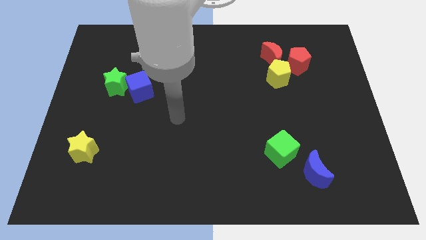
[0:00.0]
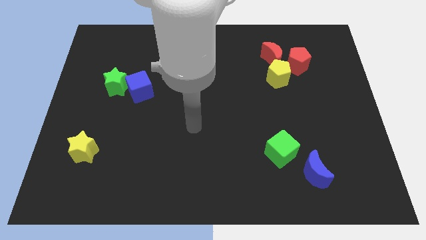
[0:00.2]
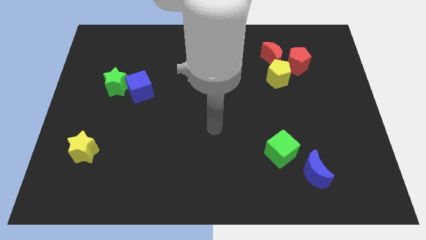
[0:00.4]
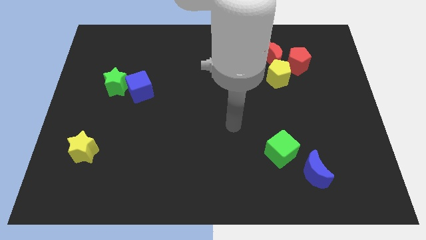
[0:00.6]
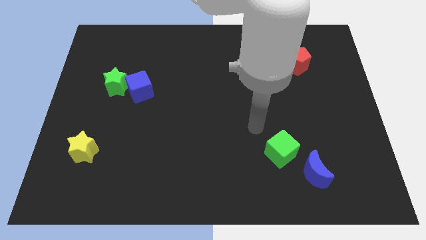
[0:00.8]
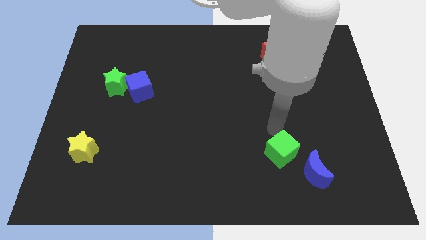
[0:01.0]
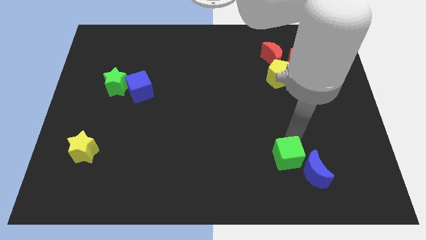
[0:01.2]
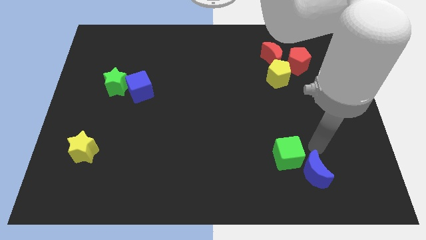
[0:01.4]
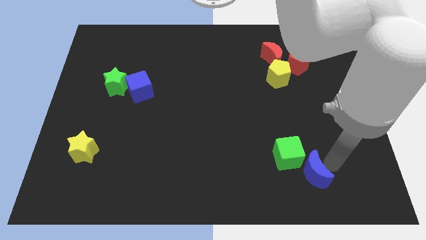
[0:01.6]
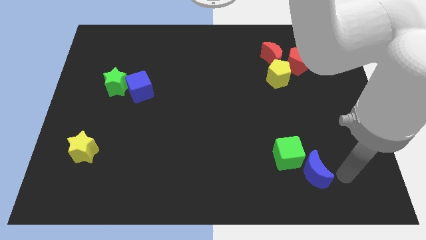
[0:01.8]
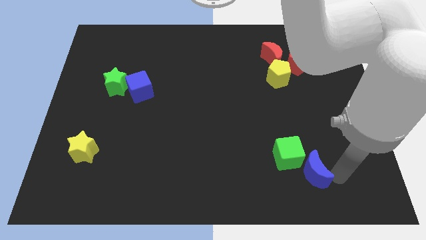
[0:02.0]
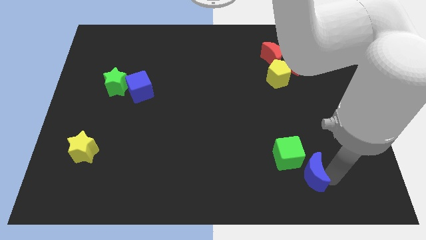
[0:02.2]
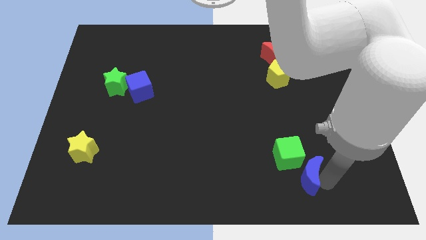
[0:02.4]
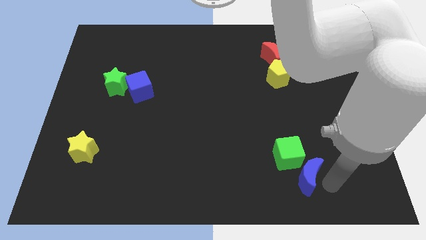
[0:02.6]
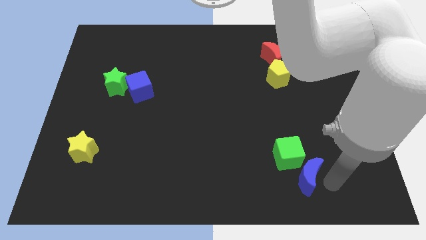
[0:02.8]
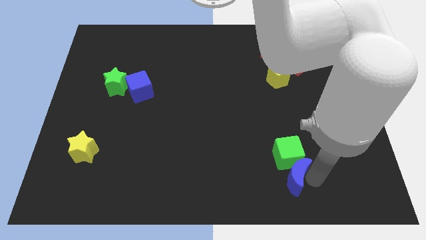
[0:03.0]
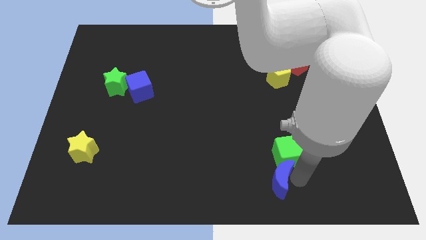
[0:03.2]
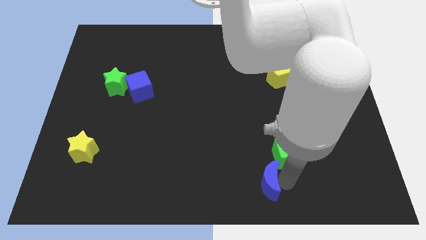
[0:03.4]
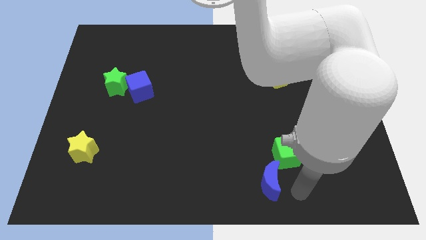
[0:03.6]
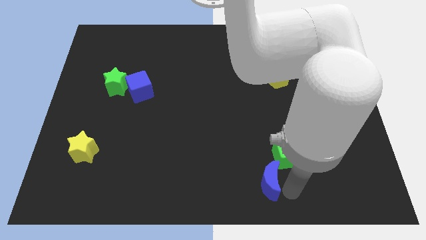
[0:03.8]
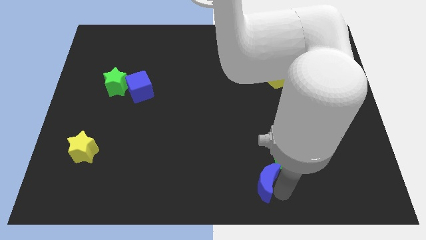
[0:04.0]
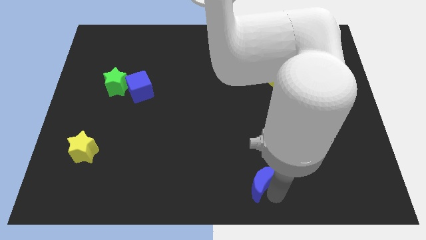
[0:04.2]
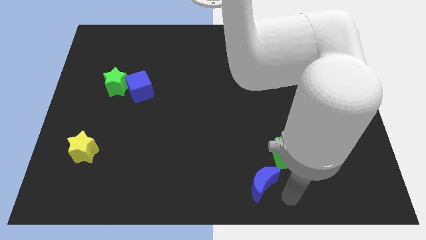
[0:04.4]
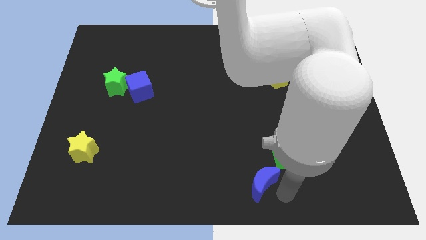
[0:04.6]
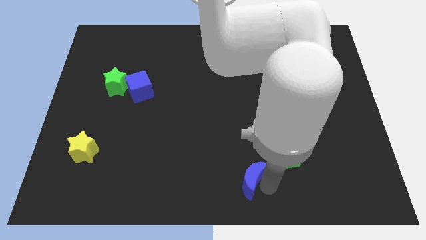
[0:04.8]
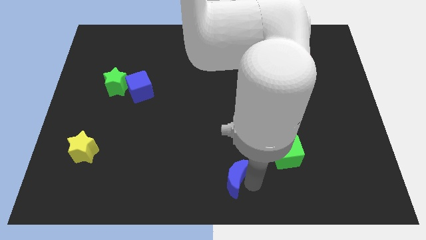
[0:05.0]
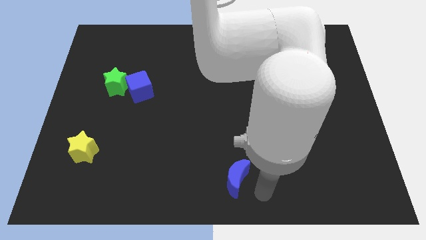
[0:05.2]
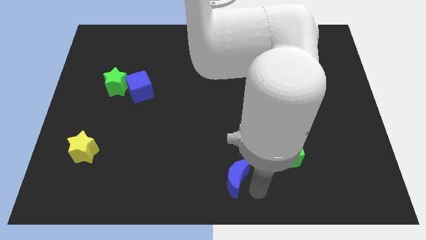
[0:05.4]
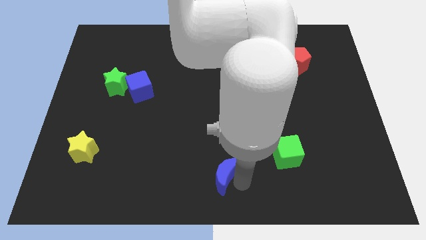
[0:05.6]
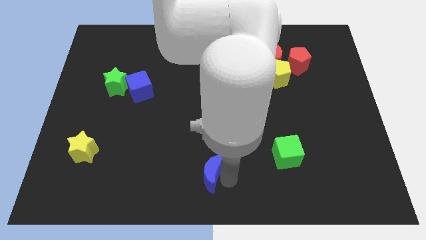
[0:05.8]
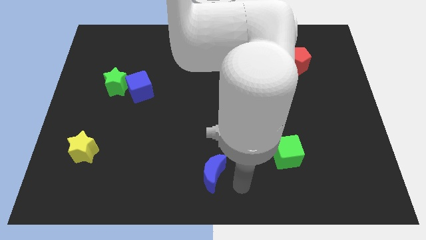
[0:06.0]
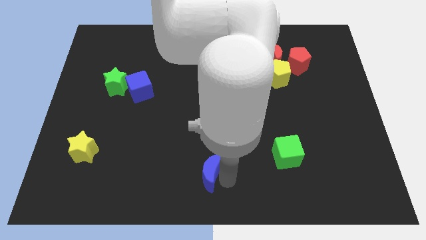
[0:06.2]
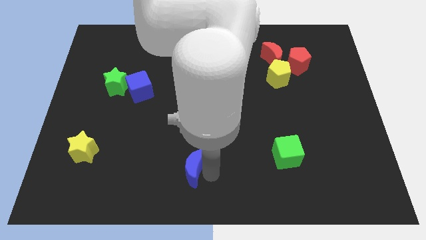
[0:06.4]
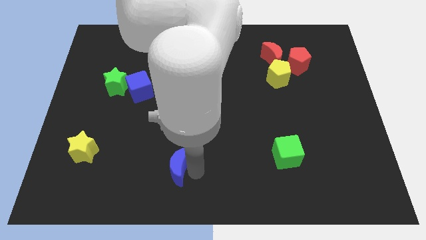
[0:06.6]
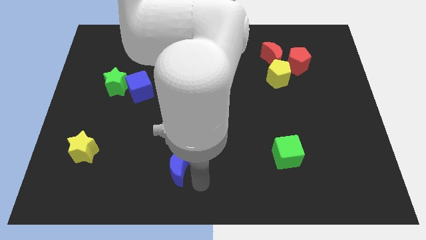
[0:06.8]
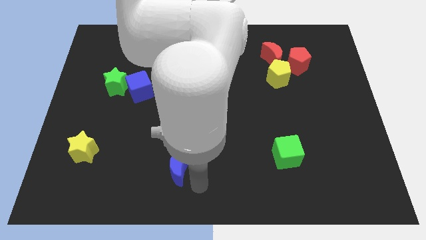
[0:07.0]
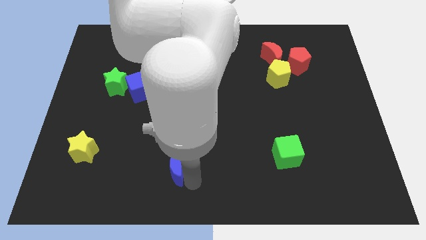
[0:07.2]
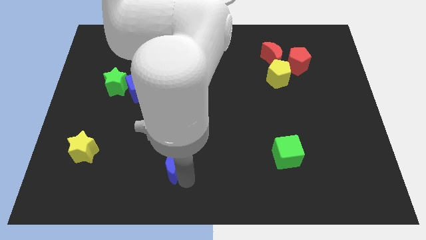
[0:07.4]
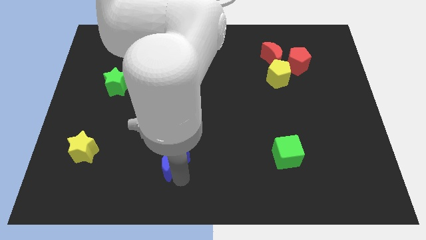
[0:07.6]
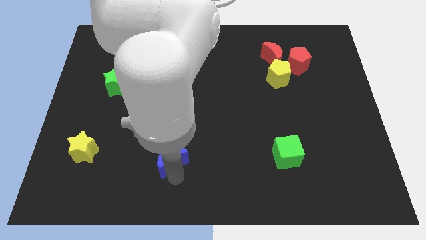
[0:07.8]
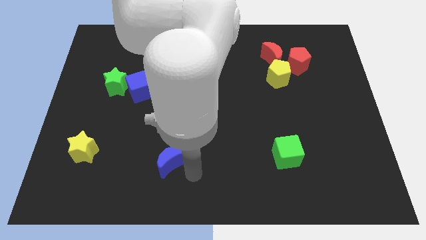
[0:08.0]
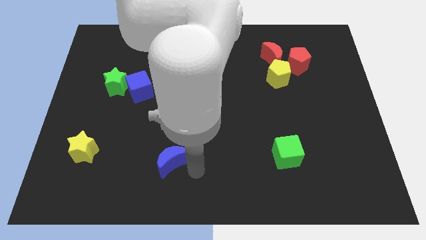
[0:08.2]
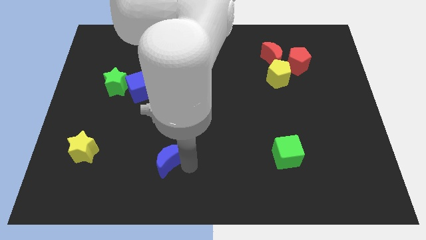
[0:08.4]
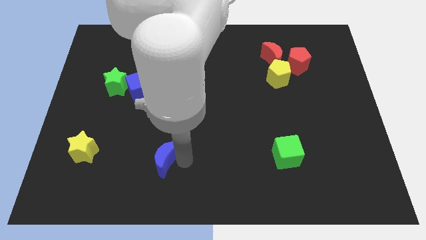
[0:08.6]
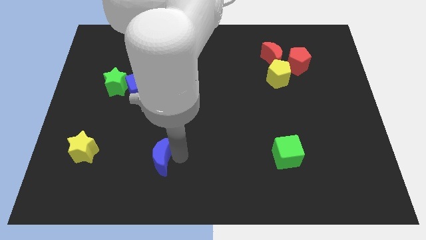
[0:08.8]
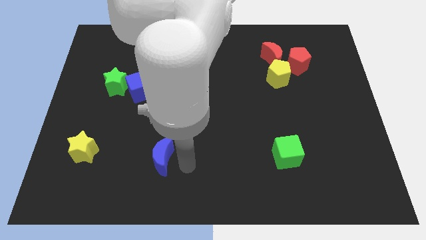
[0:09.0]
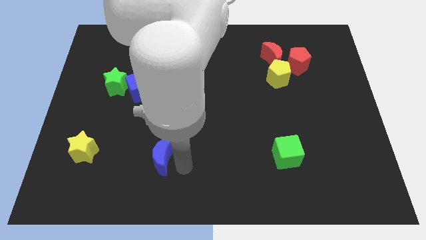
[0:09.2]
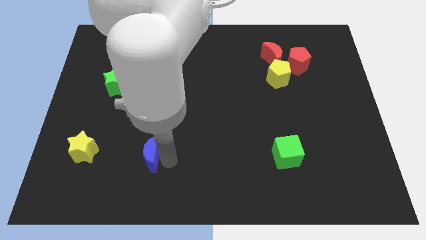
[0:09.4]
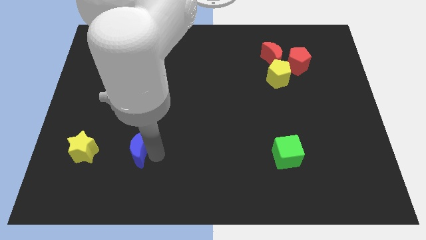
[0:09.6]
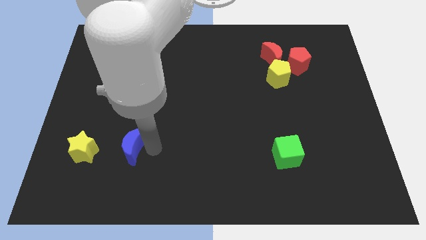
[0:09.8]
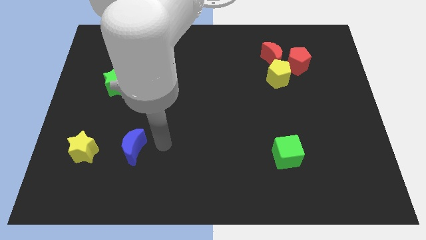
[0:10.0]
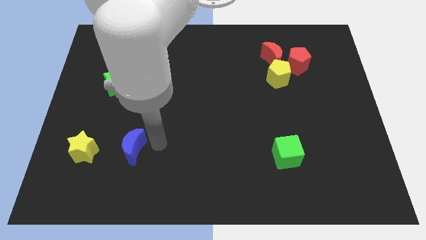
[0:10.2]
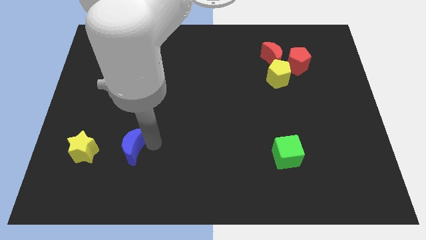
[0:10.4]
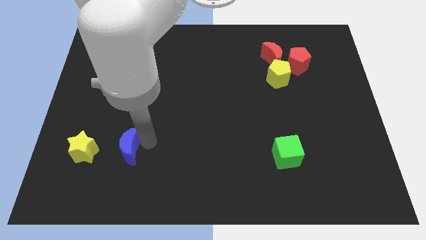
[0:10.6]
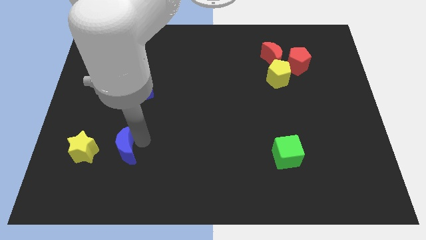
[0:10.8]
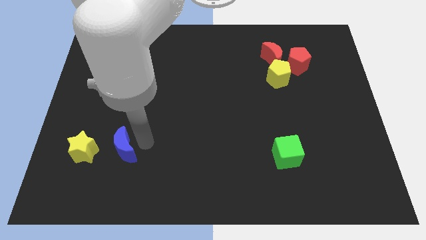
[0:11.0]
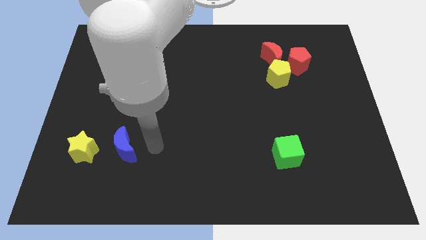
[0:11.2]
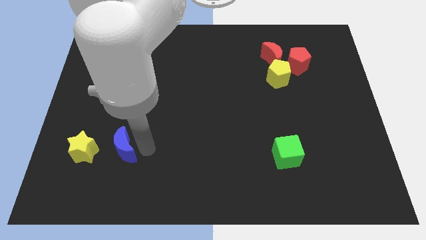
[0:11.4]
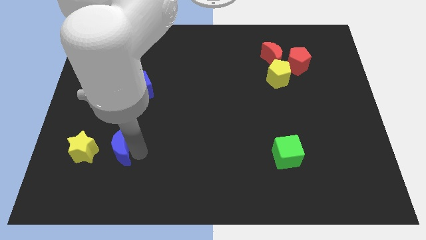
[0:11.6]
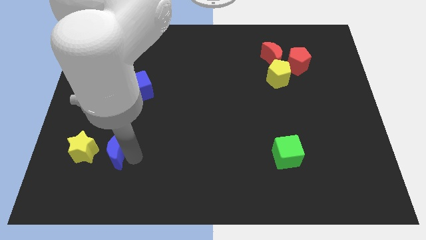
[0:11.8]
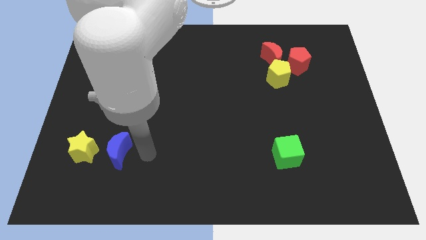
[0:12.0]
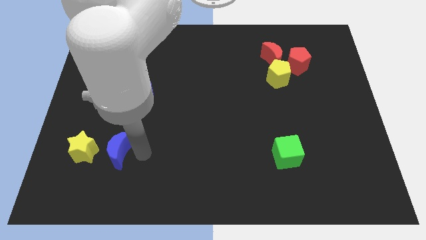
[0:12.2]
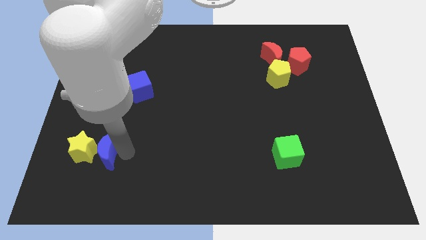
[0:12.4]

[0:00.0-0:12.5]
move the blue moon towards the yellow star
